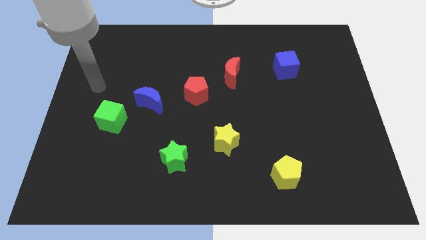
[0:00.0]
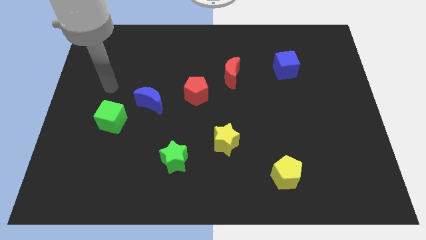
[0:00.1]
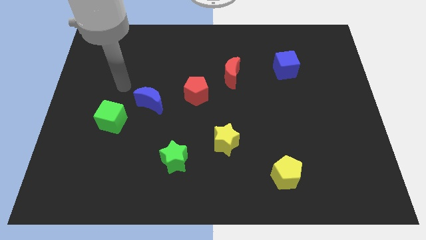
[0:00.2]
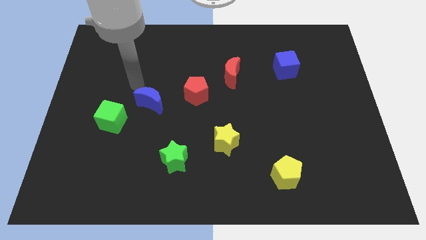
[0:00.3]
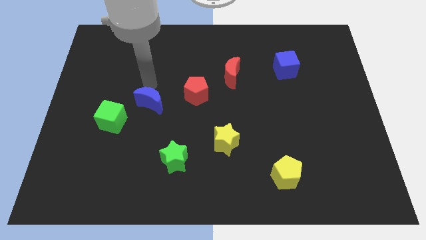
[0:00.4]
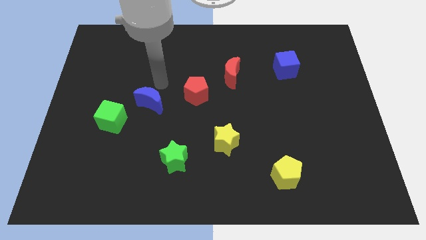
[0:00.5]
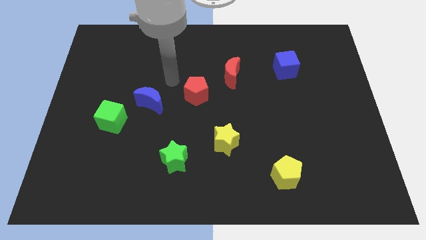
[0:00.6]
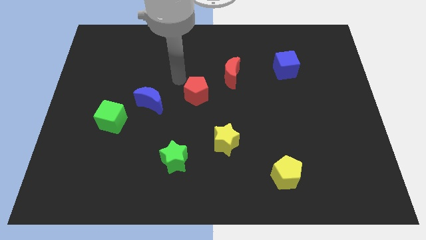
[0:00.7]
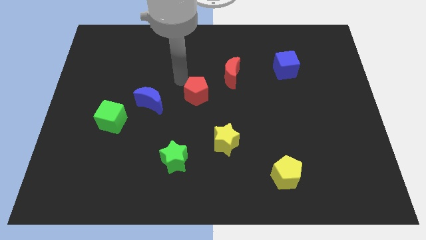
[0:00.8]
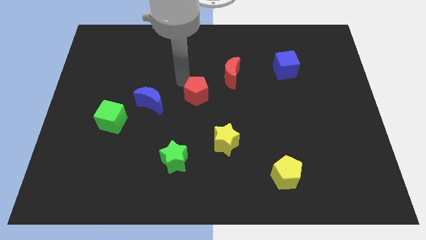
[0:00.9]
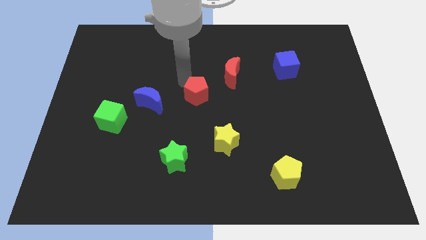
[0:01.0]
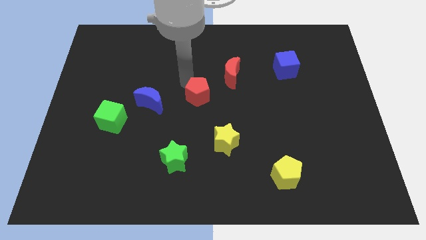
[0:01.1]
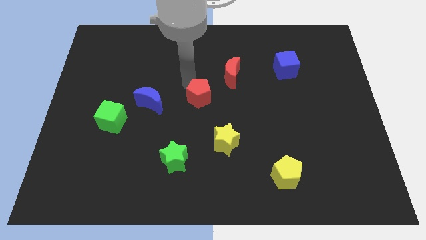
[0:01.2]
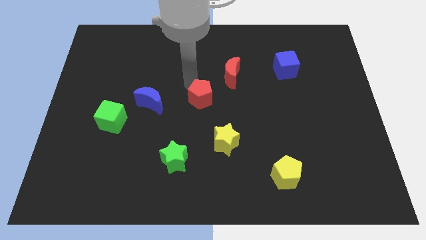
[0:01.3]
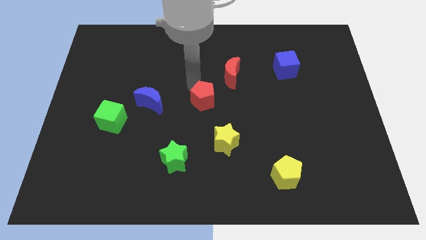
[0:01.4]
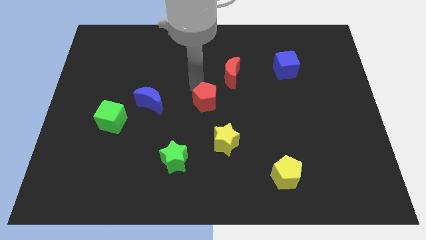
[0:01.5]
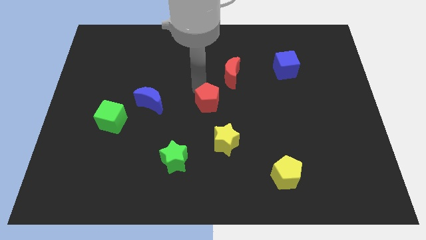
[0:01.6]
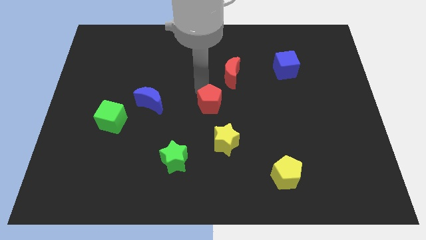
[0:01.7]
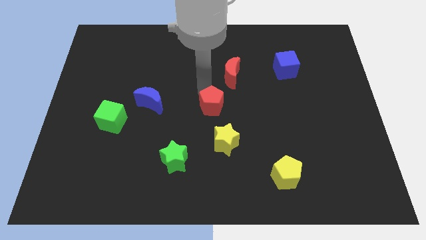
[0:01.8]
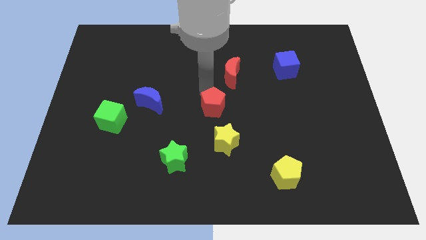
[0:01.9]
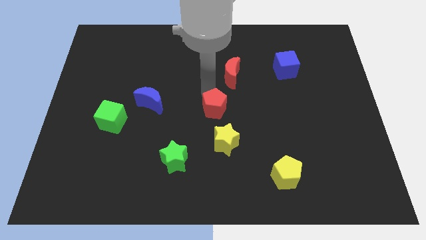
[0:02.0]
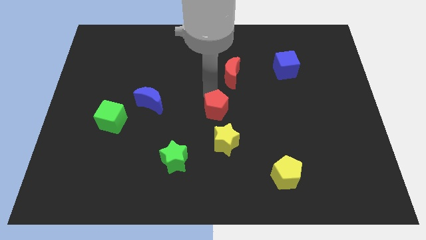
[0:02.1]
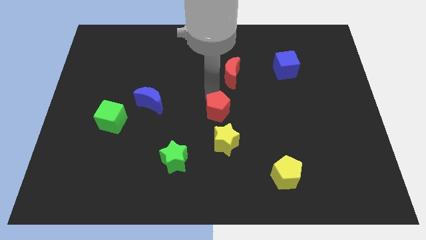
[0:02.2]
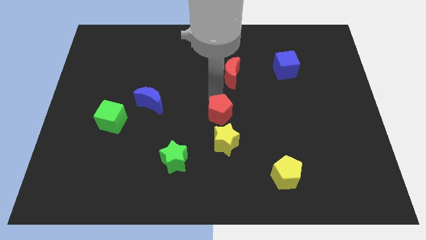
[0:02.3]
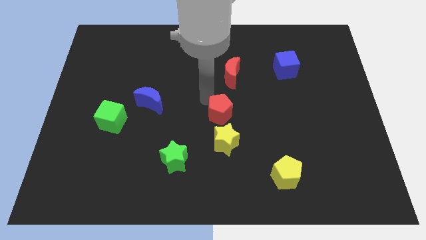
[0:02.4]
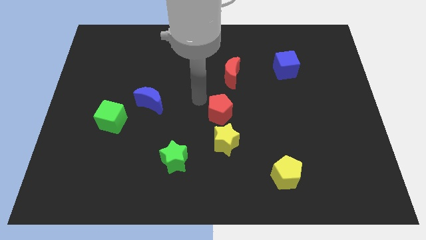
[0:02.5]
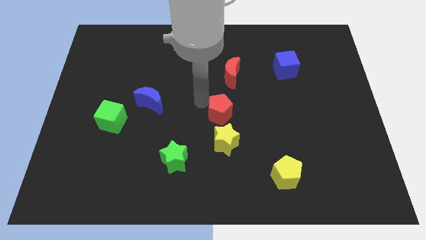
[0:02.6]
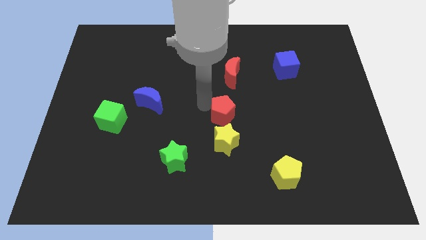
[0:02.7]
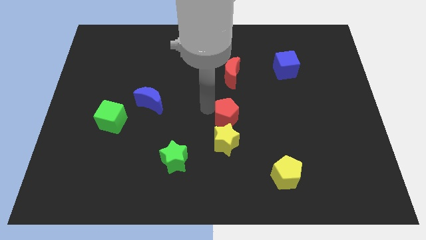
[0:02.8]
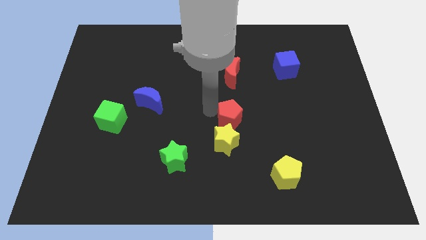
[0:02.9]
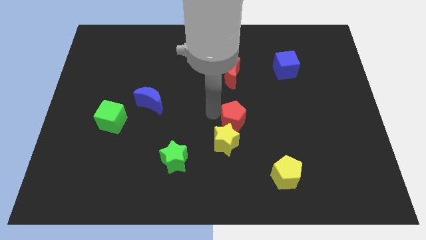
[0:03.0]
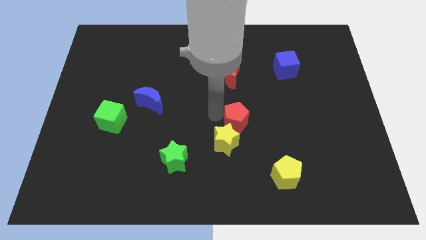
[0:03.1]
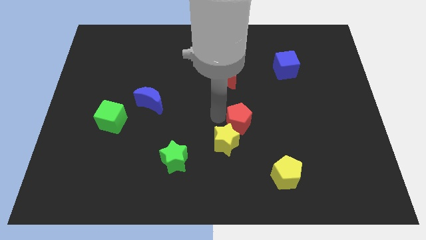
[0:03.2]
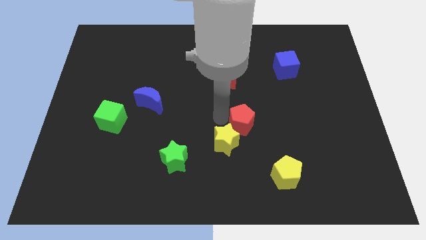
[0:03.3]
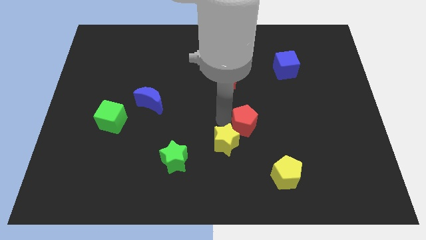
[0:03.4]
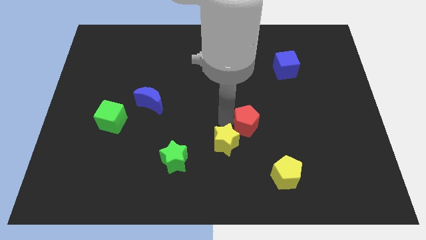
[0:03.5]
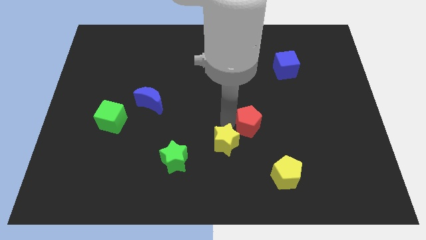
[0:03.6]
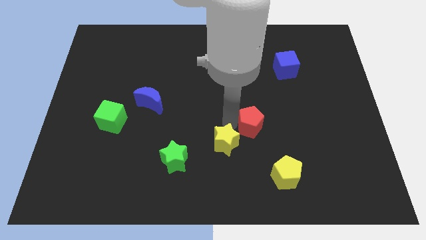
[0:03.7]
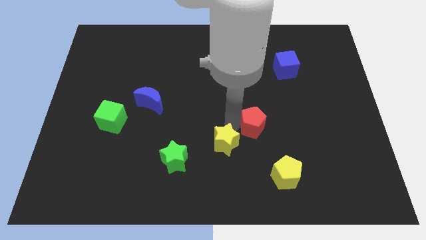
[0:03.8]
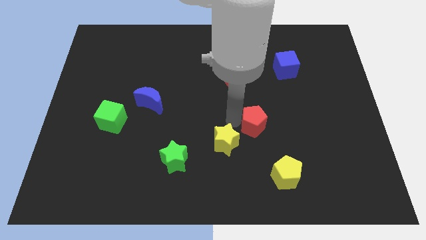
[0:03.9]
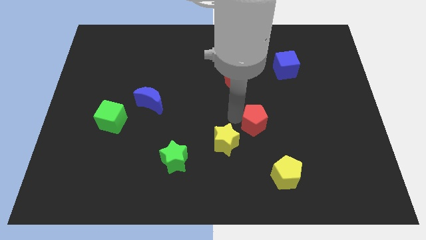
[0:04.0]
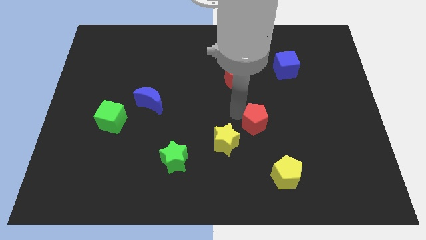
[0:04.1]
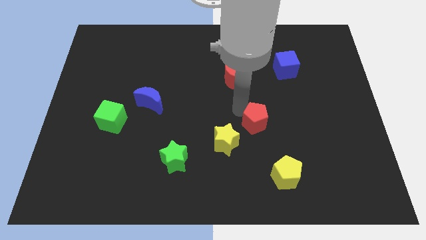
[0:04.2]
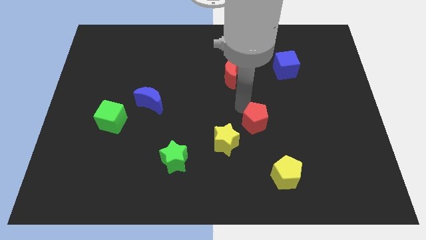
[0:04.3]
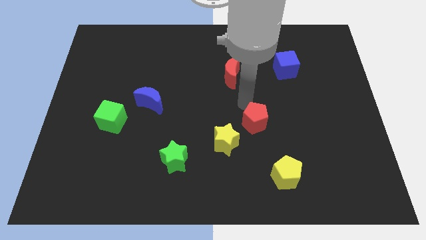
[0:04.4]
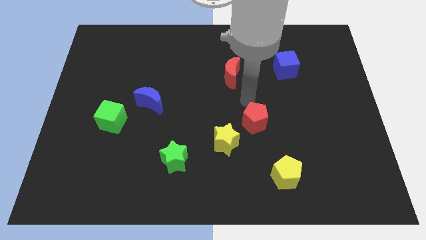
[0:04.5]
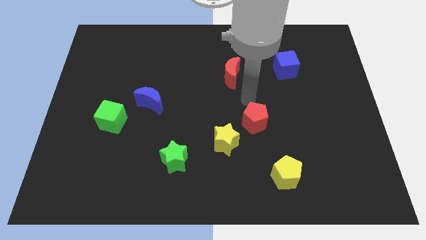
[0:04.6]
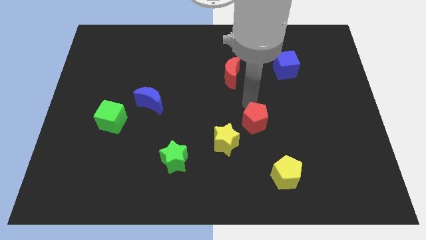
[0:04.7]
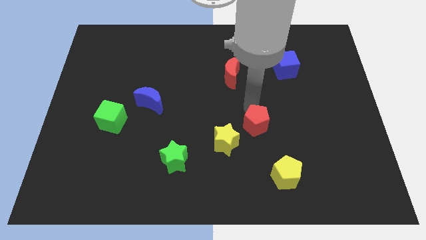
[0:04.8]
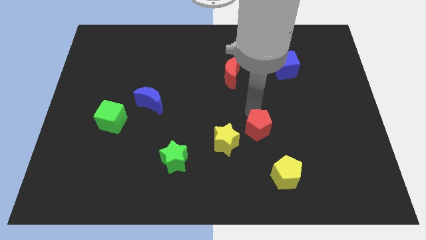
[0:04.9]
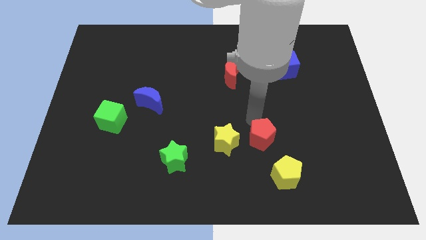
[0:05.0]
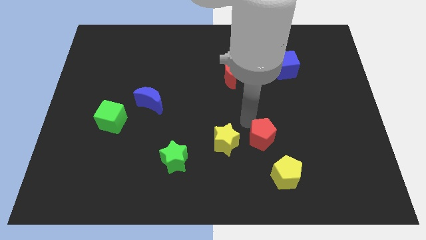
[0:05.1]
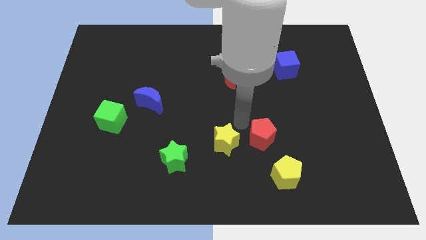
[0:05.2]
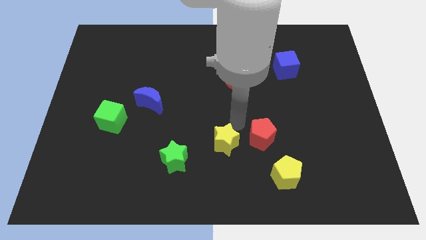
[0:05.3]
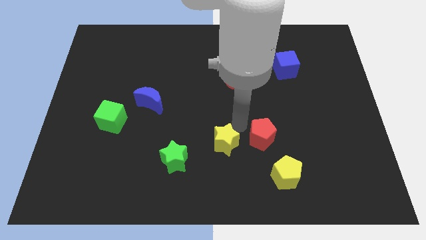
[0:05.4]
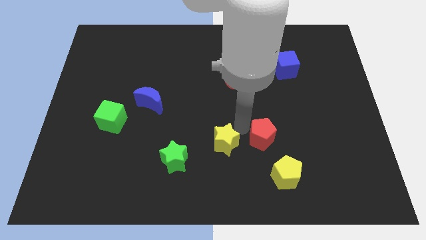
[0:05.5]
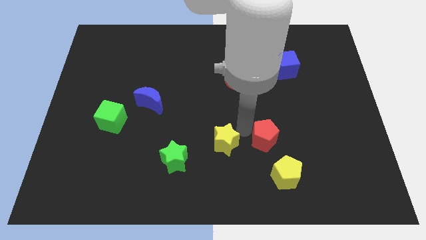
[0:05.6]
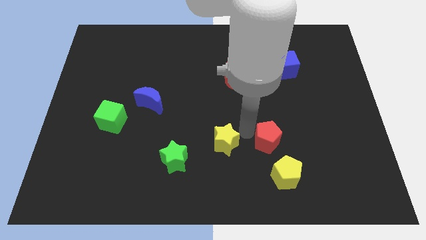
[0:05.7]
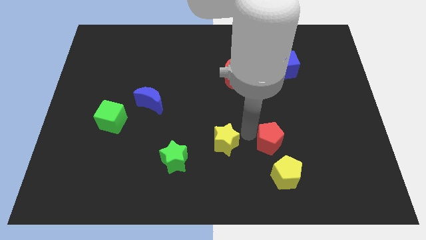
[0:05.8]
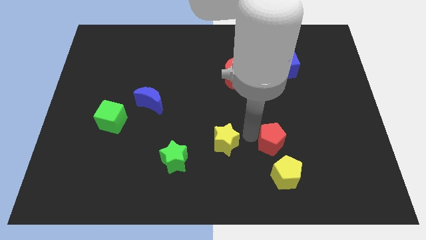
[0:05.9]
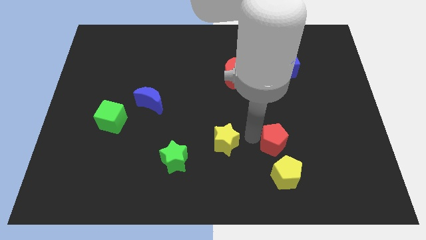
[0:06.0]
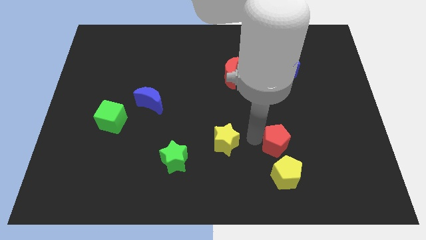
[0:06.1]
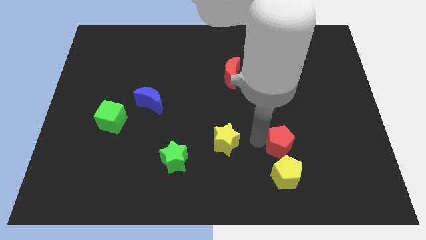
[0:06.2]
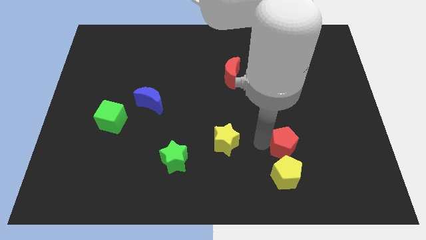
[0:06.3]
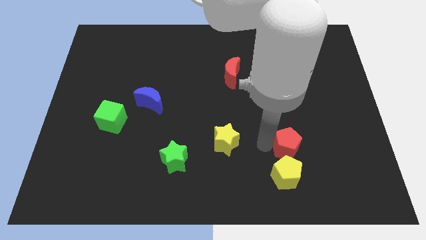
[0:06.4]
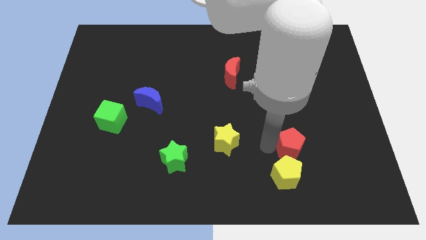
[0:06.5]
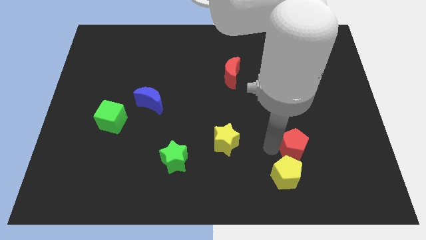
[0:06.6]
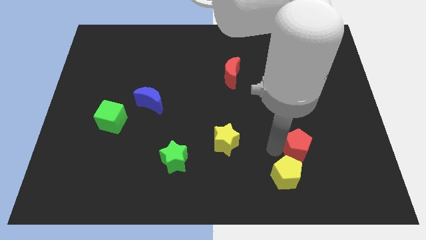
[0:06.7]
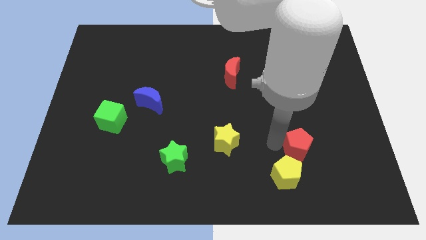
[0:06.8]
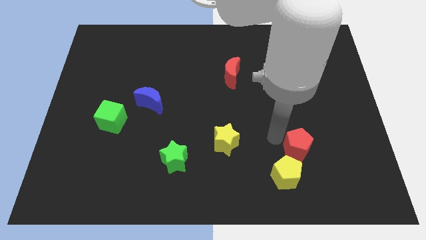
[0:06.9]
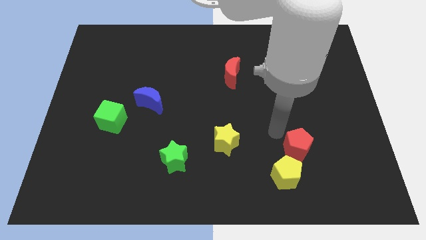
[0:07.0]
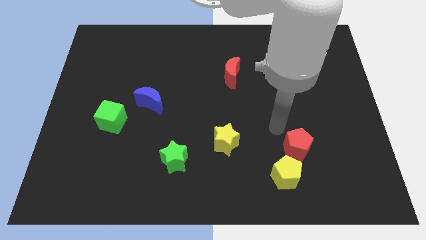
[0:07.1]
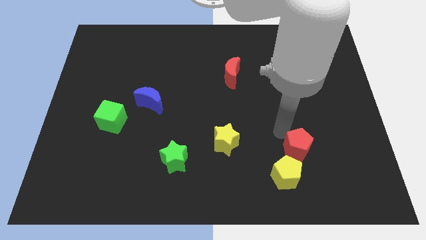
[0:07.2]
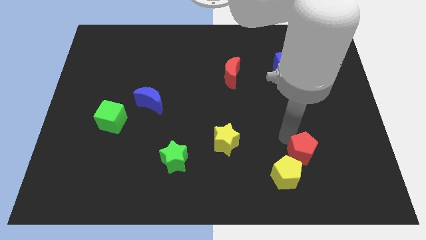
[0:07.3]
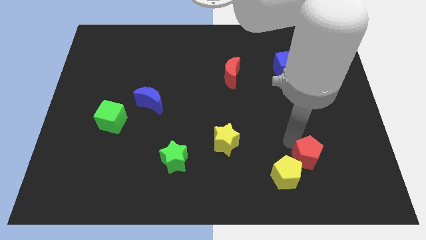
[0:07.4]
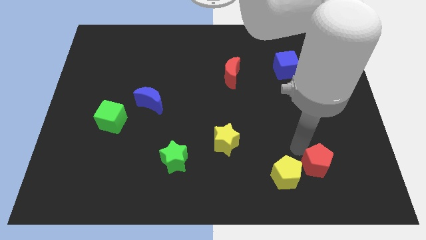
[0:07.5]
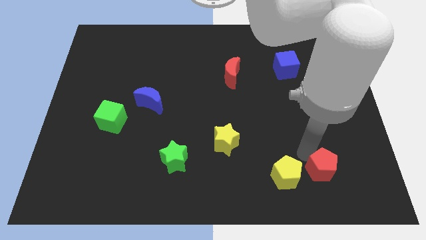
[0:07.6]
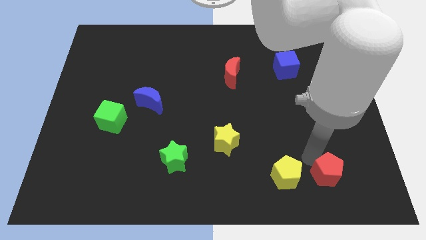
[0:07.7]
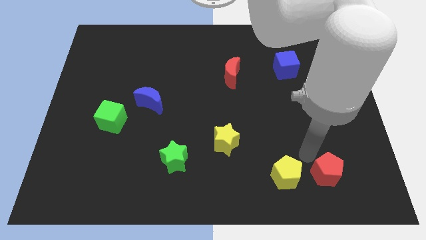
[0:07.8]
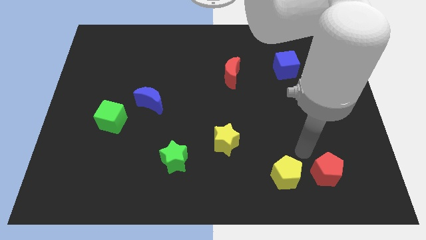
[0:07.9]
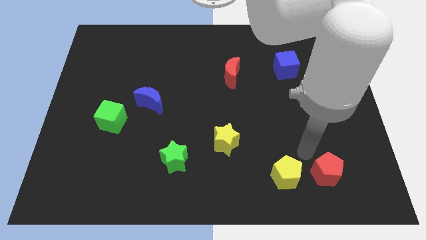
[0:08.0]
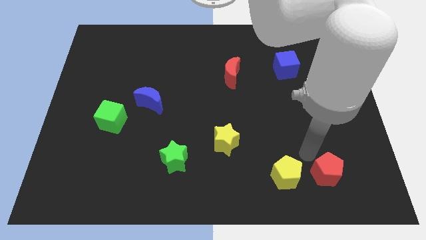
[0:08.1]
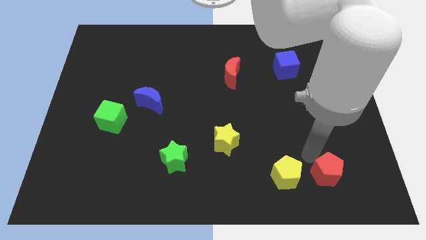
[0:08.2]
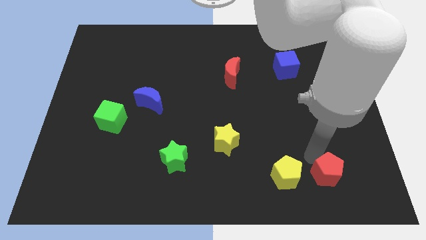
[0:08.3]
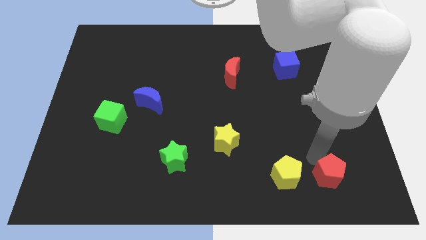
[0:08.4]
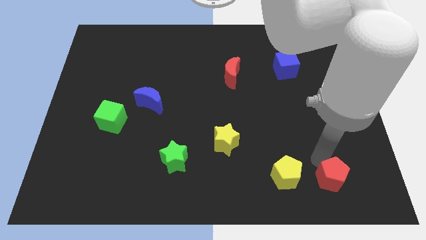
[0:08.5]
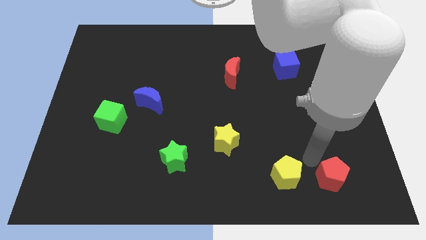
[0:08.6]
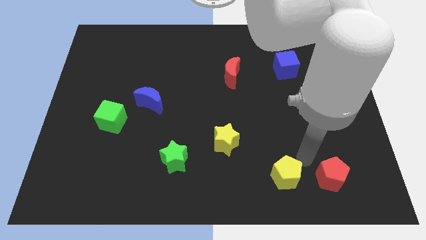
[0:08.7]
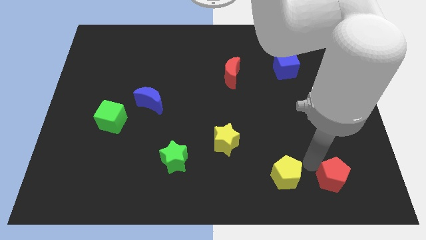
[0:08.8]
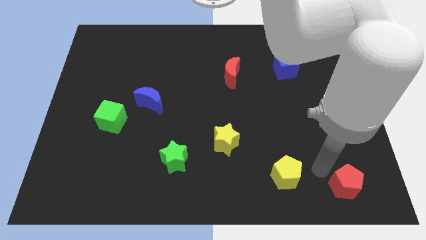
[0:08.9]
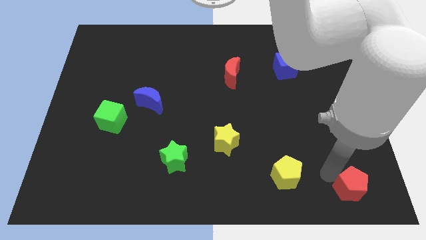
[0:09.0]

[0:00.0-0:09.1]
push the red pentagon to the lower right corner
